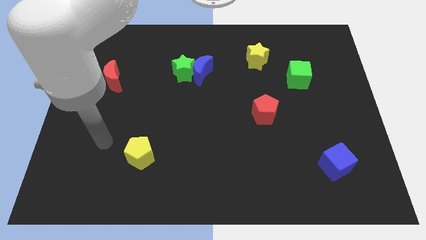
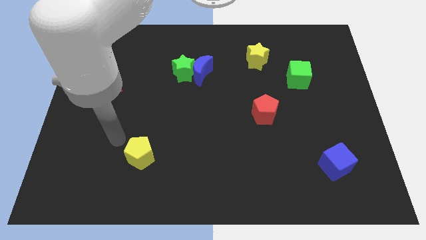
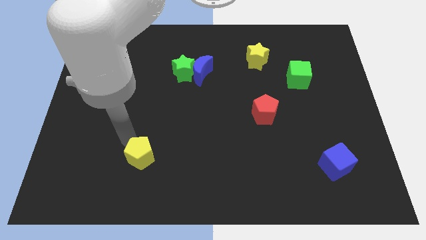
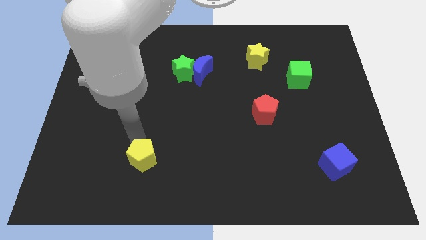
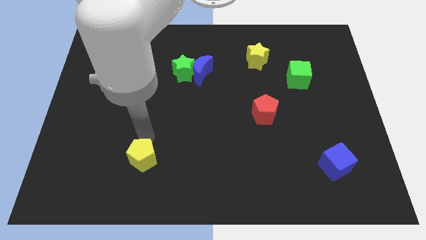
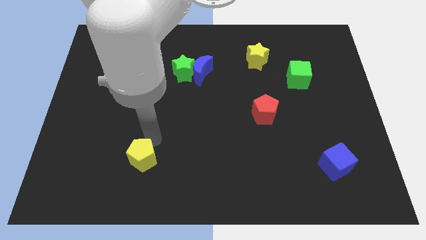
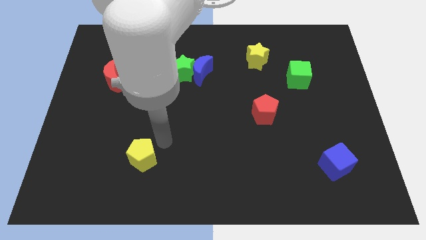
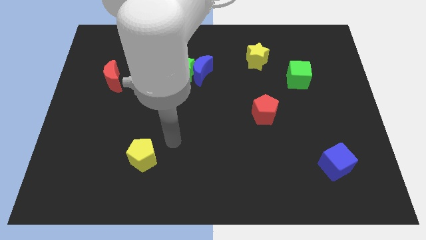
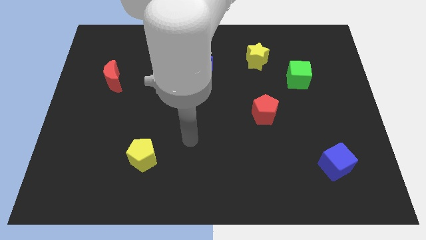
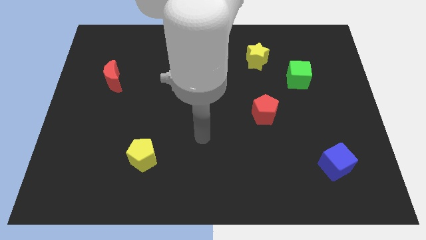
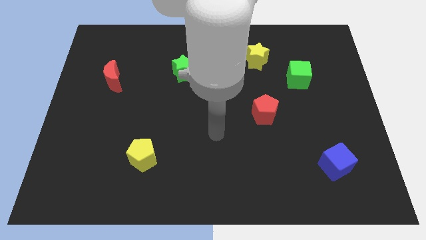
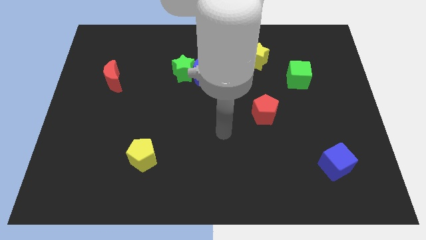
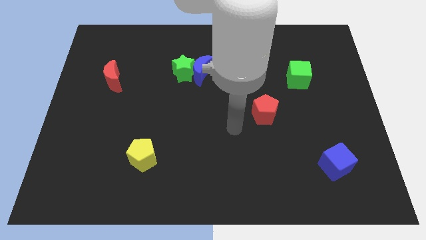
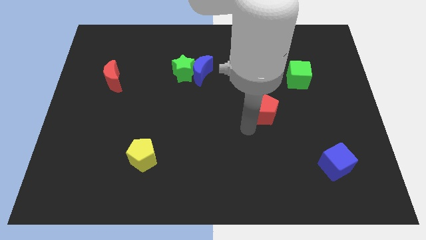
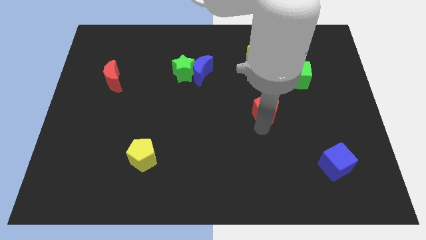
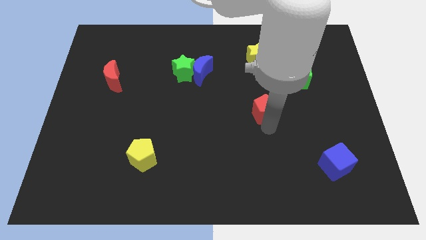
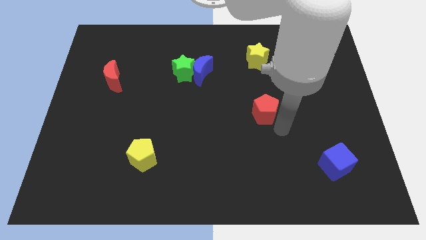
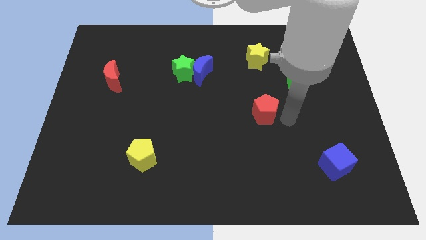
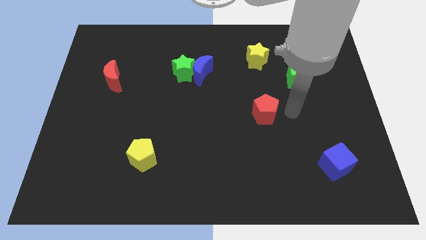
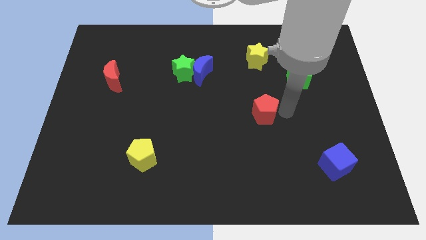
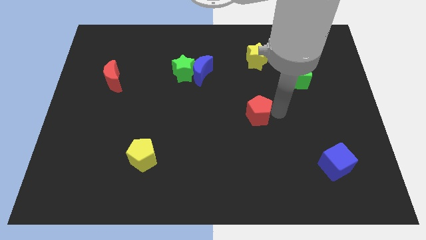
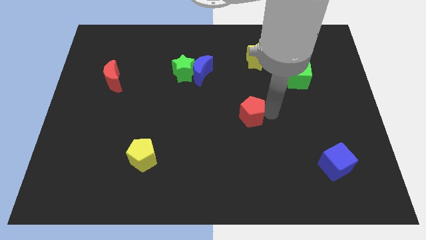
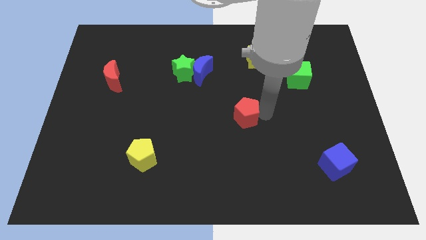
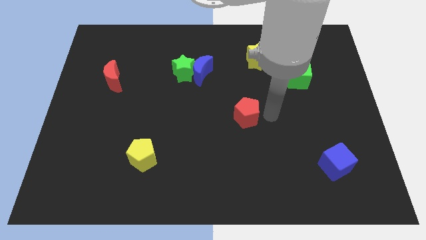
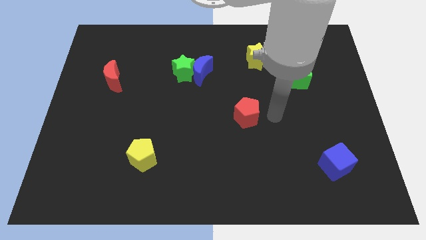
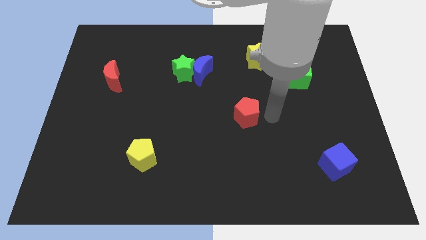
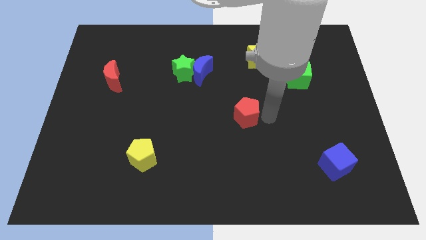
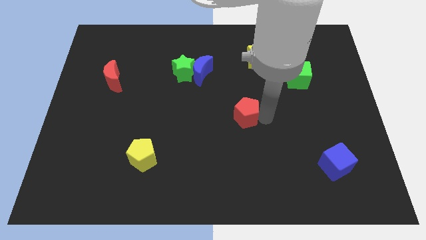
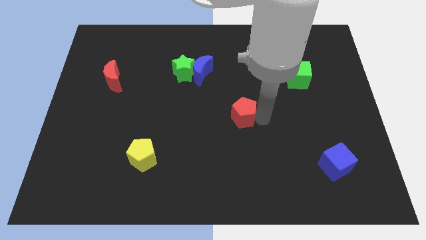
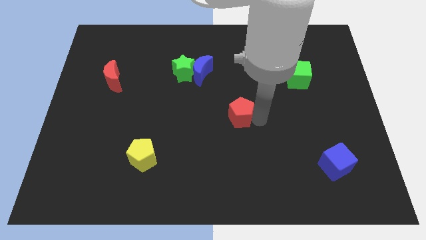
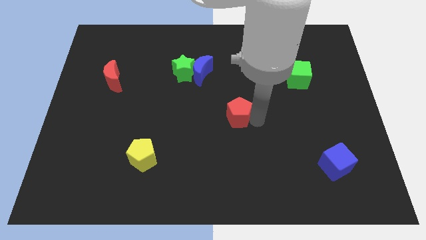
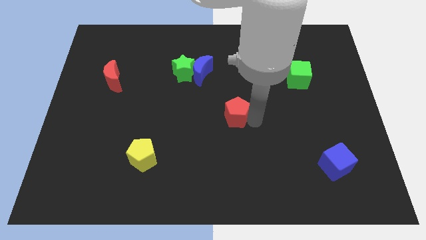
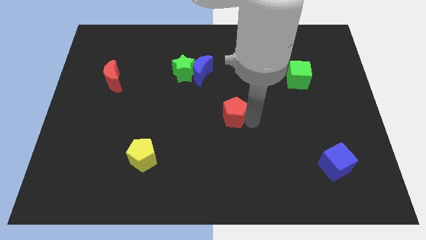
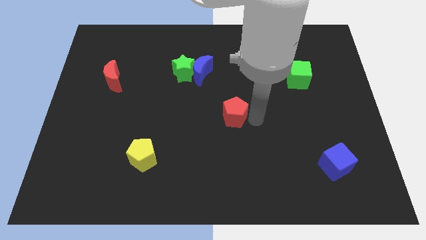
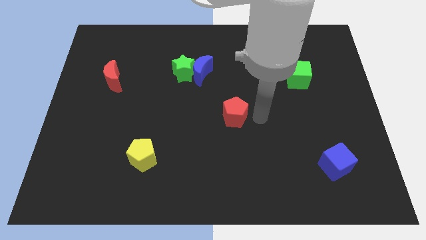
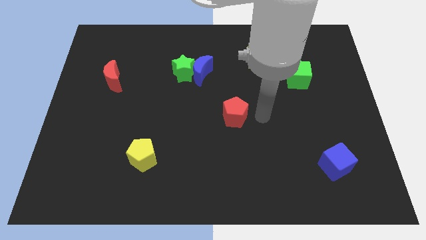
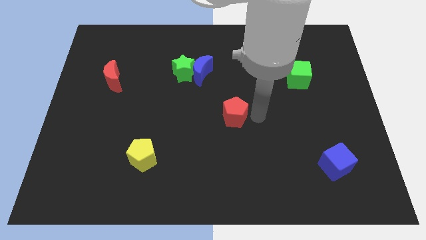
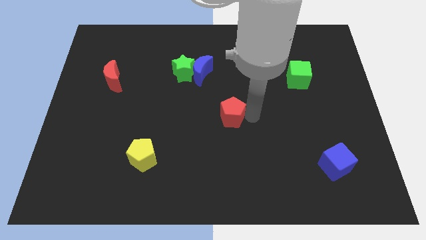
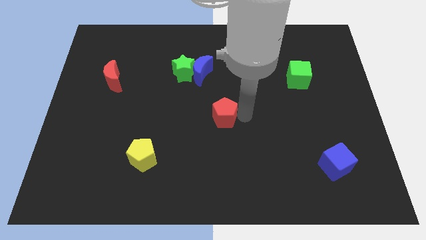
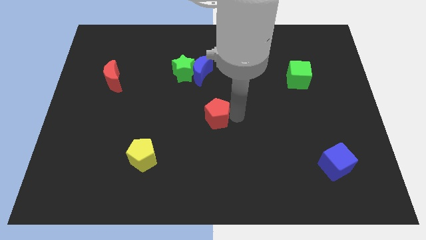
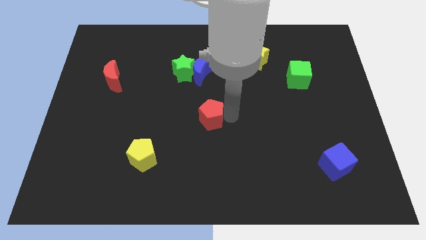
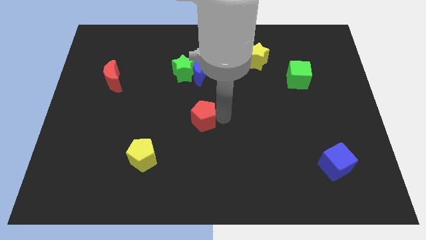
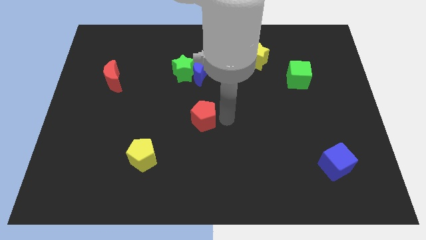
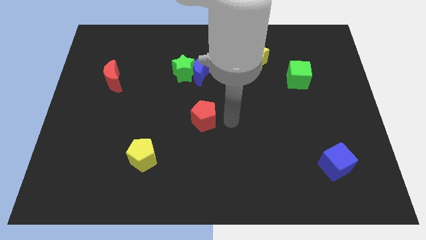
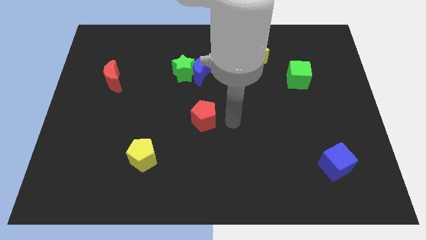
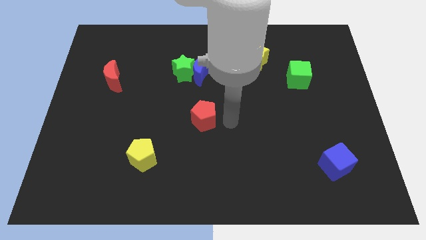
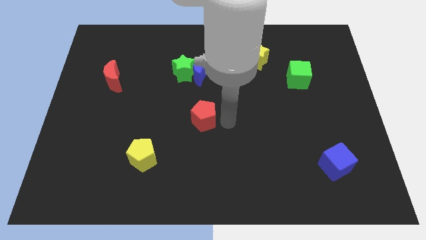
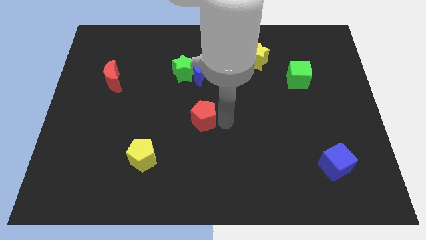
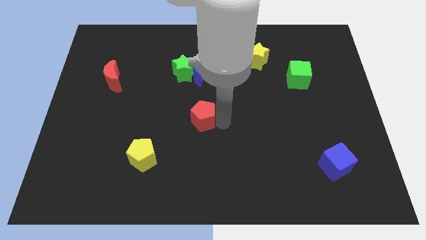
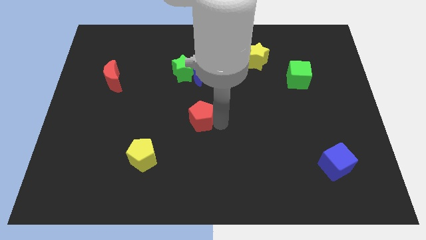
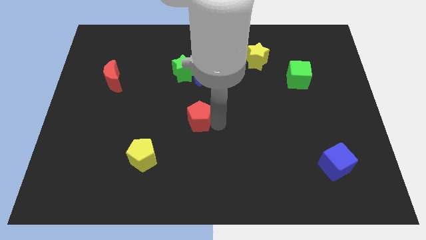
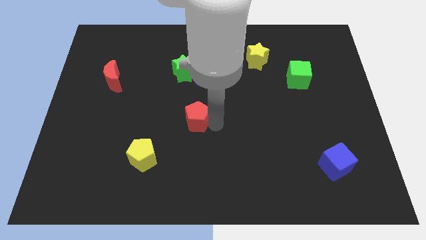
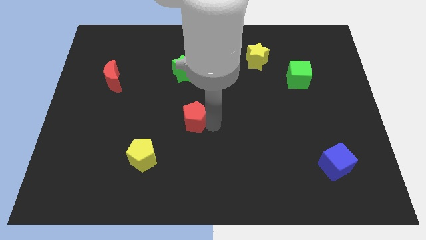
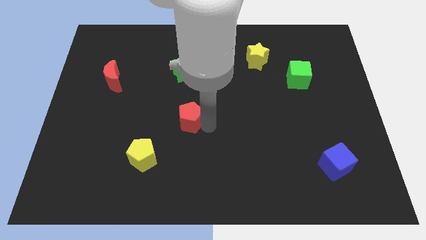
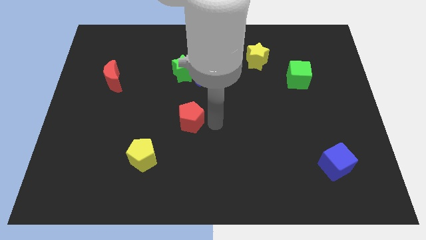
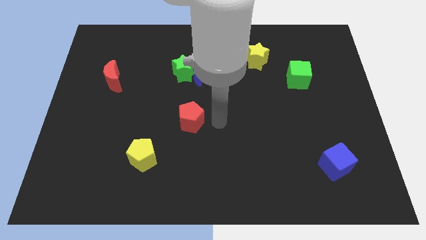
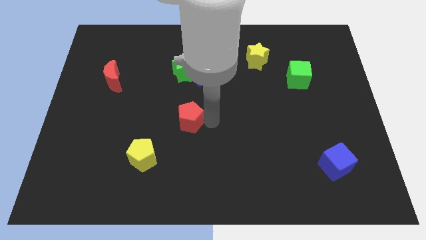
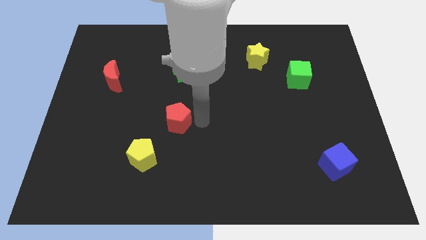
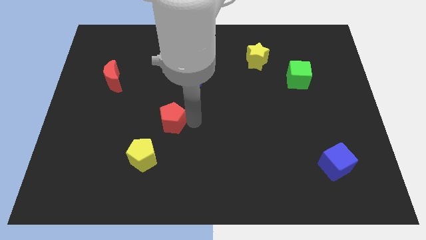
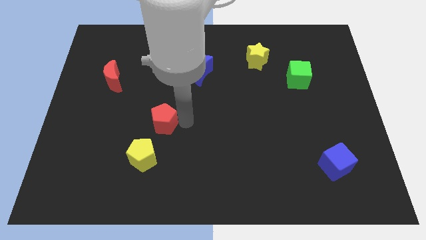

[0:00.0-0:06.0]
push the red pentagon above the yellow pentagon

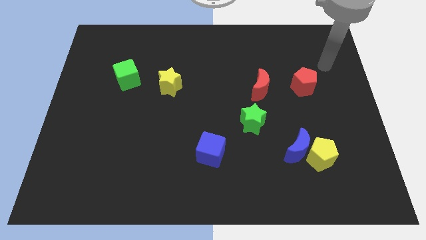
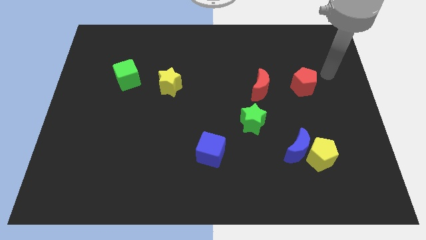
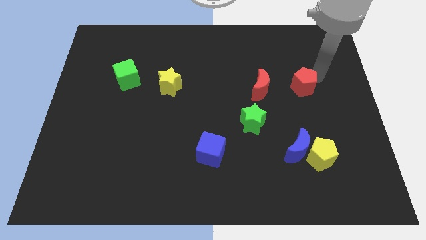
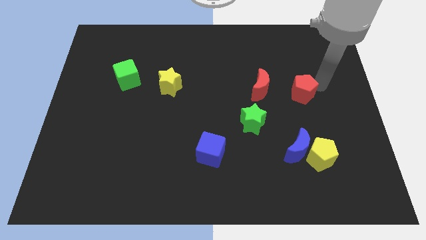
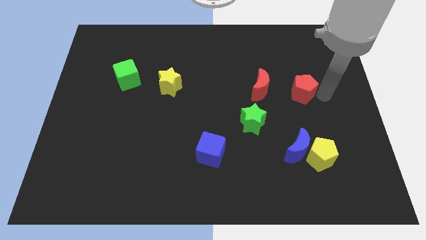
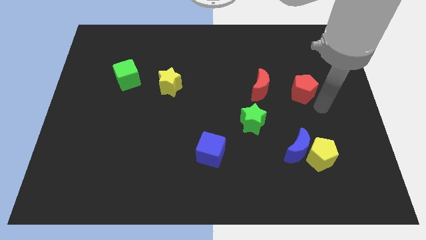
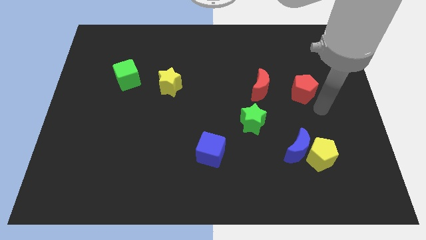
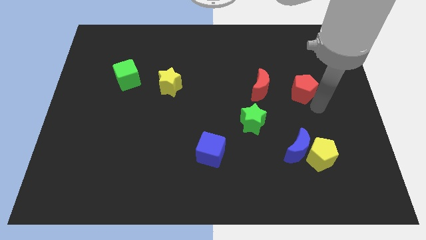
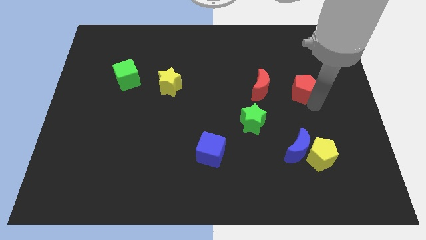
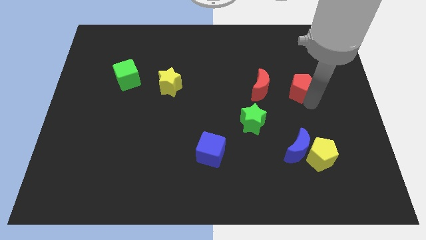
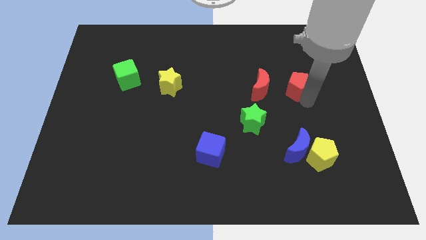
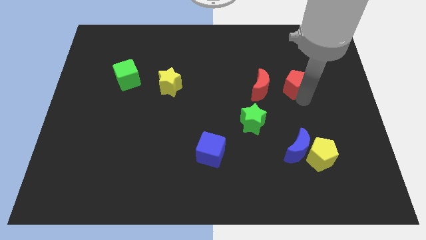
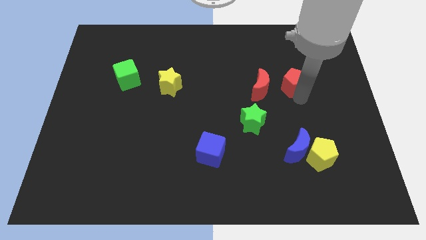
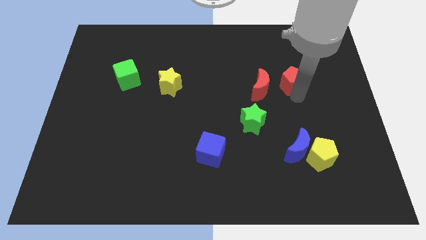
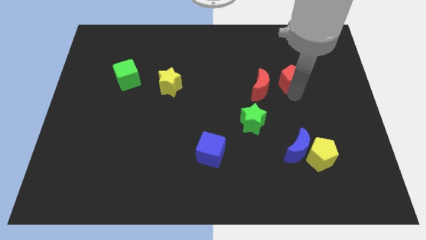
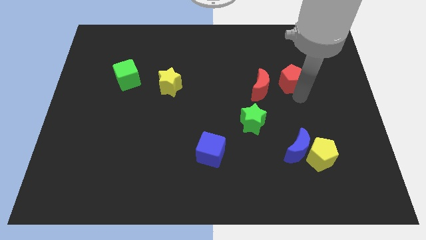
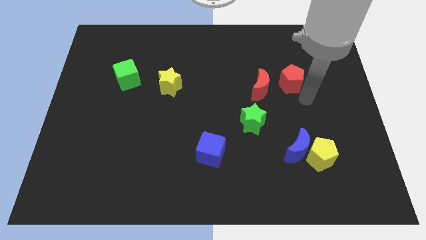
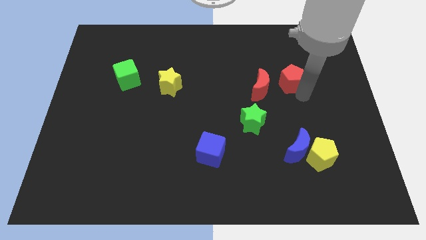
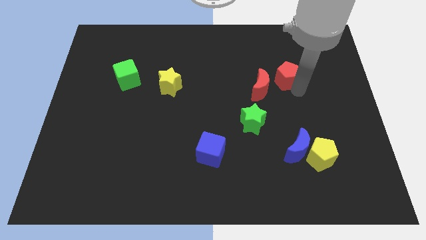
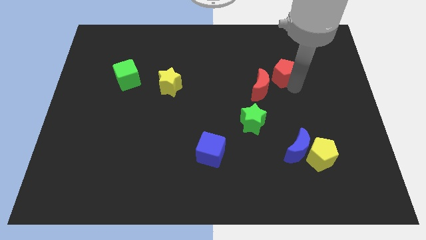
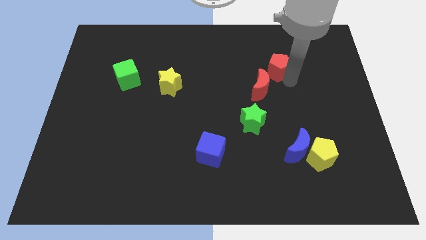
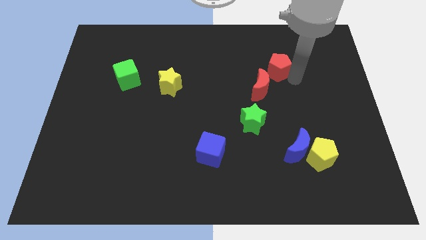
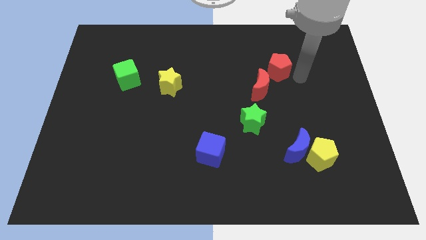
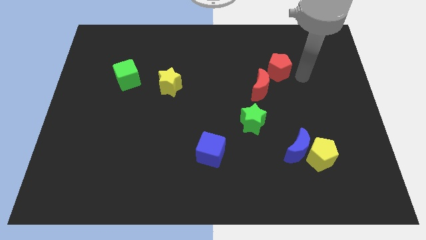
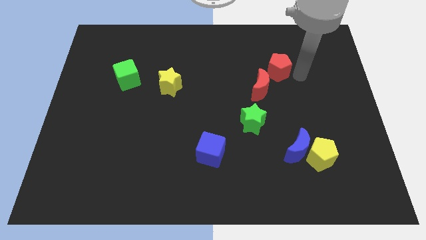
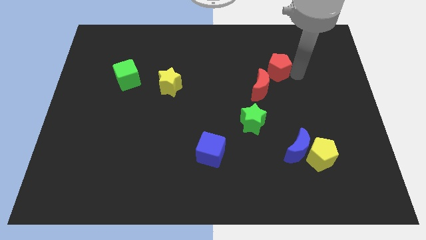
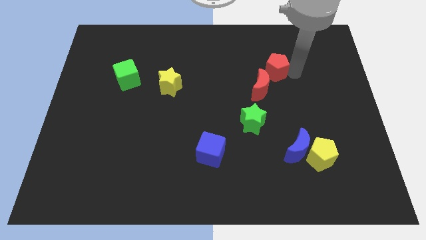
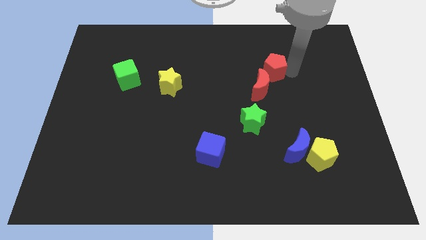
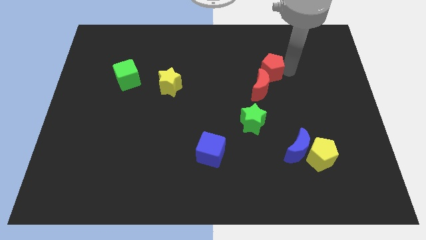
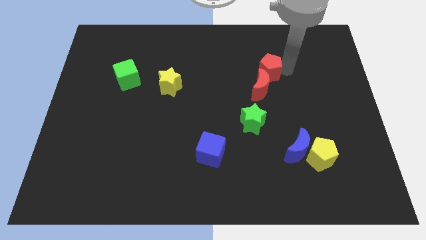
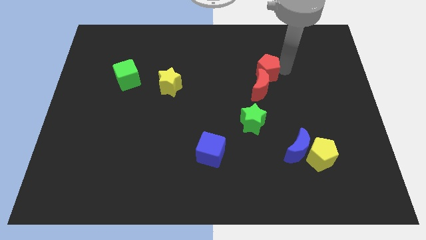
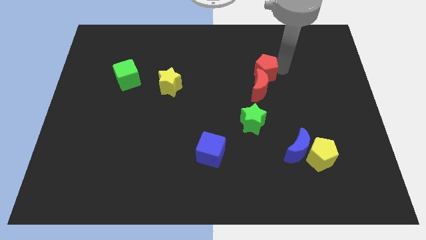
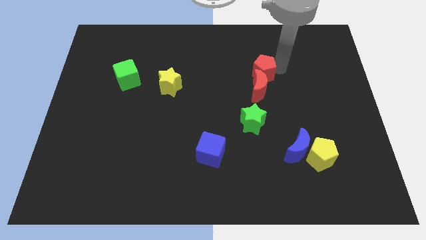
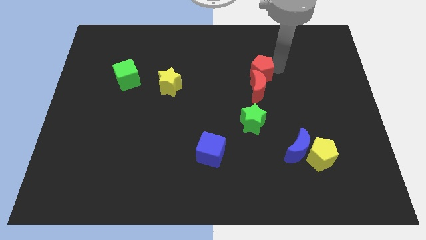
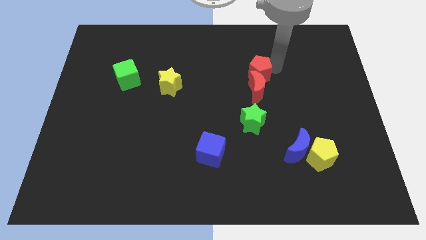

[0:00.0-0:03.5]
move the red pentagon above the green star
